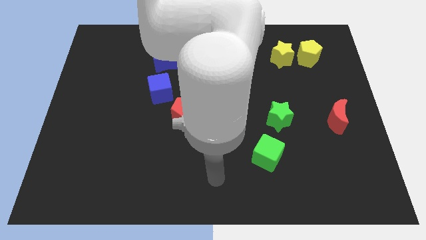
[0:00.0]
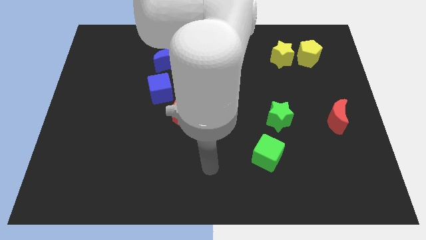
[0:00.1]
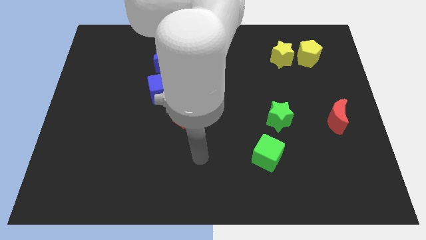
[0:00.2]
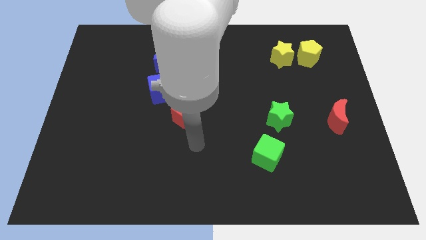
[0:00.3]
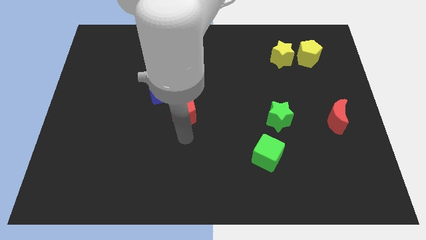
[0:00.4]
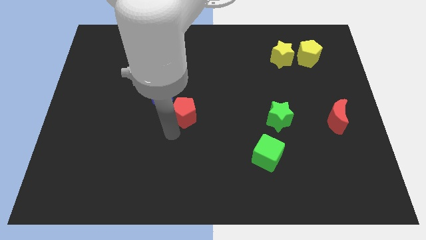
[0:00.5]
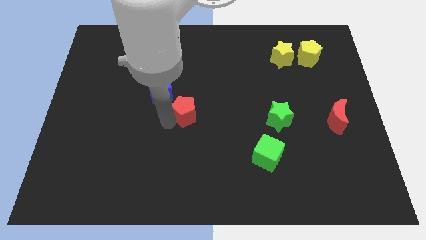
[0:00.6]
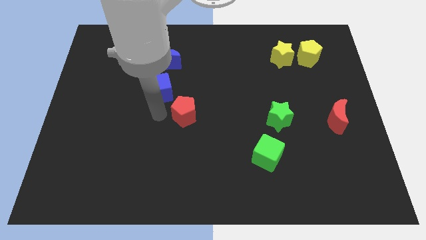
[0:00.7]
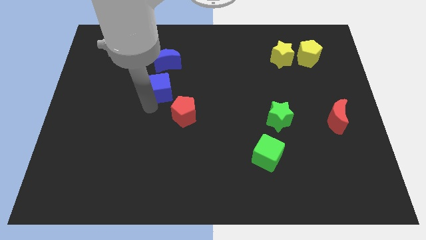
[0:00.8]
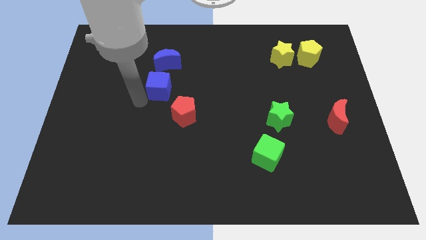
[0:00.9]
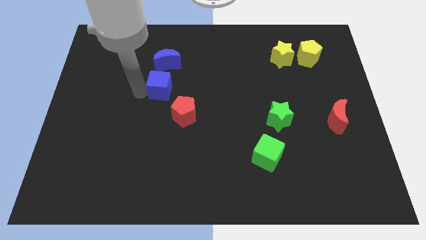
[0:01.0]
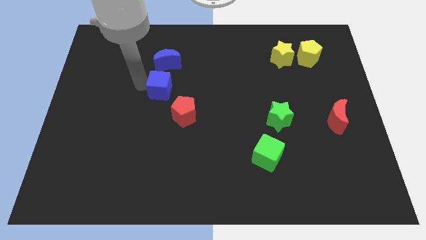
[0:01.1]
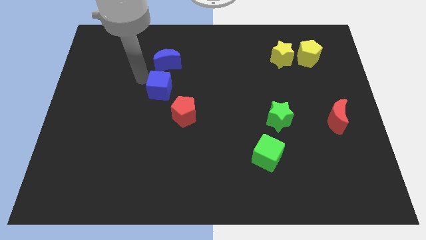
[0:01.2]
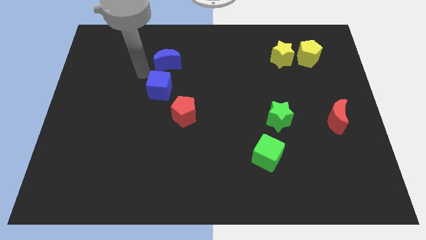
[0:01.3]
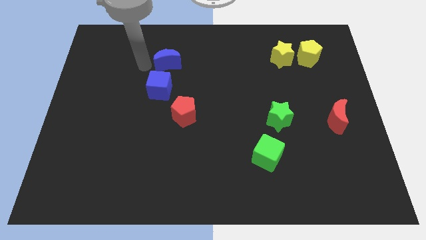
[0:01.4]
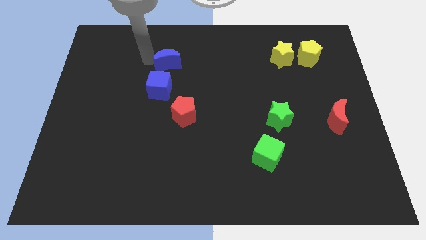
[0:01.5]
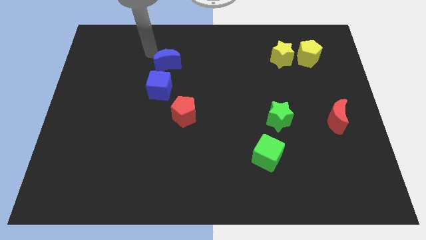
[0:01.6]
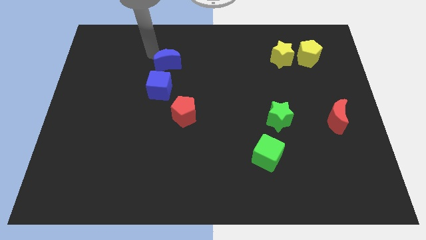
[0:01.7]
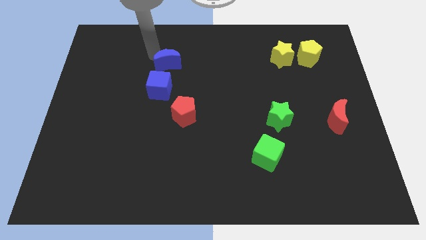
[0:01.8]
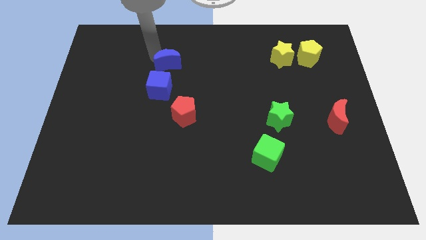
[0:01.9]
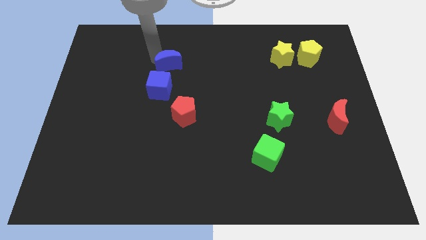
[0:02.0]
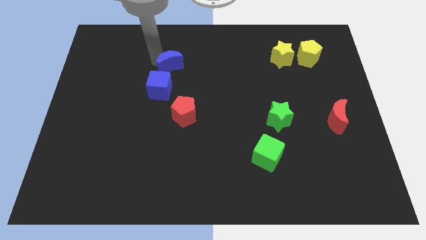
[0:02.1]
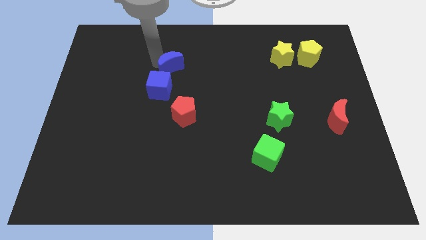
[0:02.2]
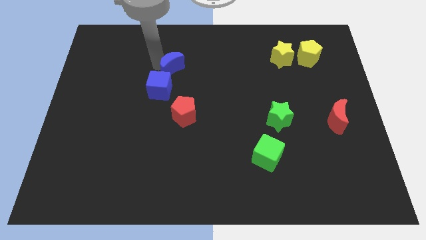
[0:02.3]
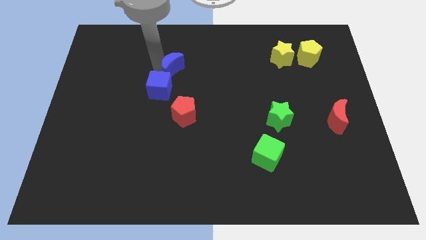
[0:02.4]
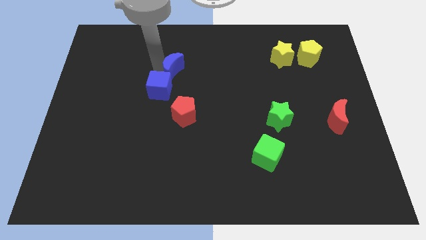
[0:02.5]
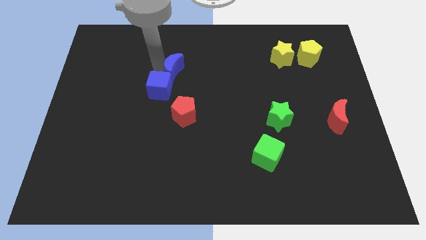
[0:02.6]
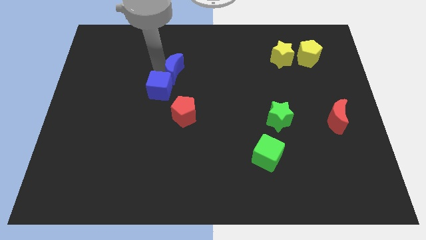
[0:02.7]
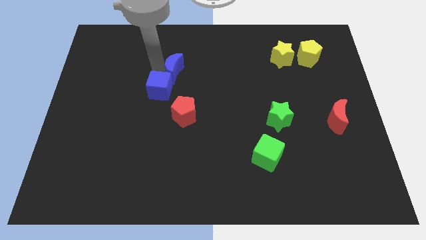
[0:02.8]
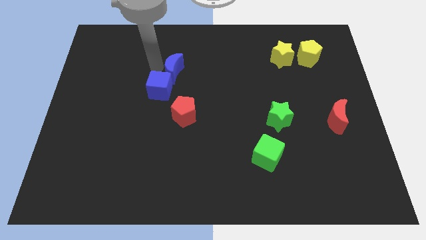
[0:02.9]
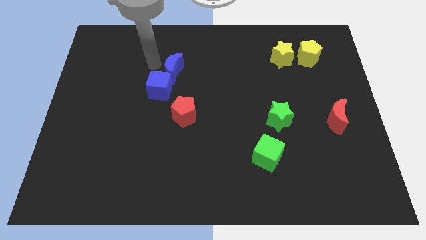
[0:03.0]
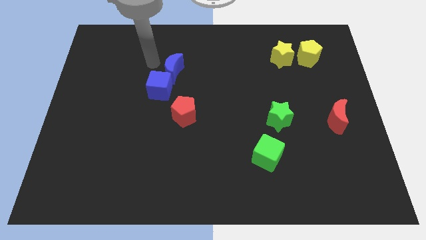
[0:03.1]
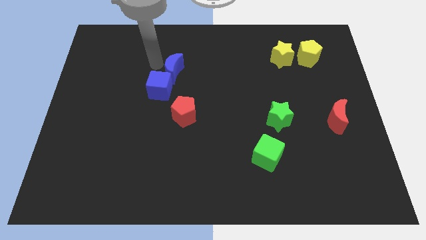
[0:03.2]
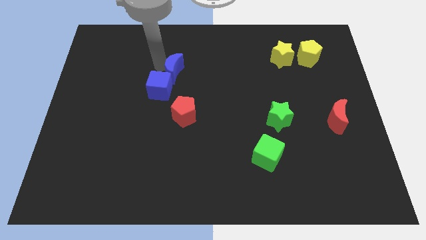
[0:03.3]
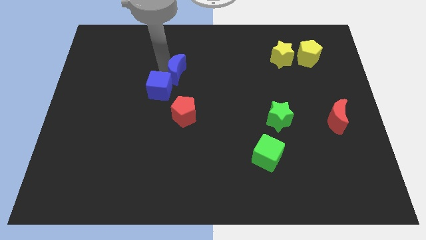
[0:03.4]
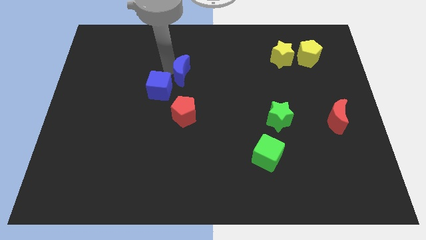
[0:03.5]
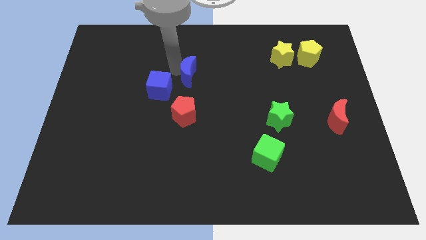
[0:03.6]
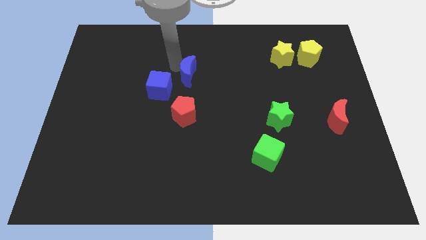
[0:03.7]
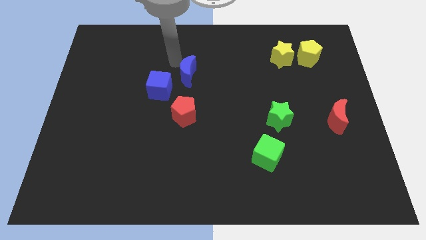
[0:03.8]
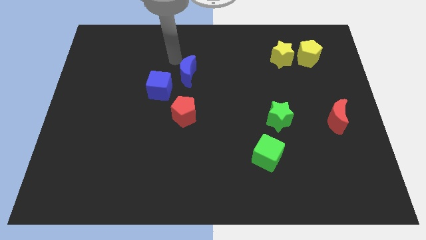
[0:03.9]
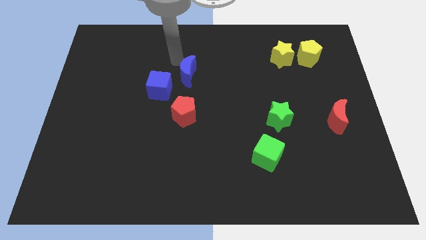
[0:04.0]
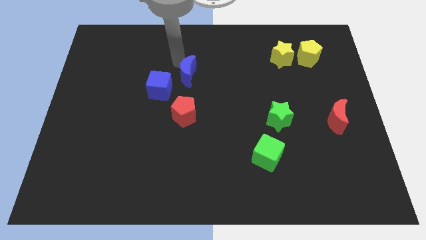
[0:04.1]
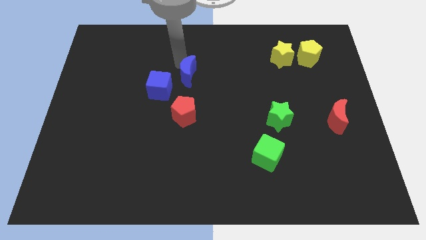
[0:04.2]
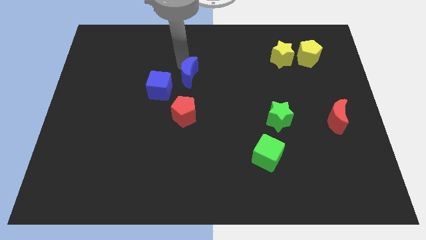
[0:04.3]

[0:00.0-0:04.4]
move the blue moon down and to the right diagonally a little

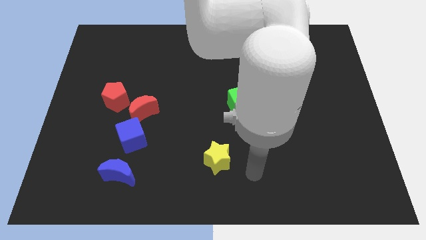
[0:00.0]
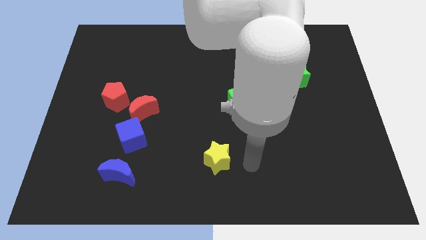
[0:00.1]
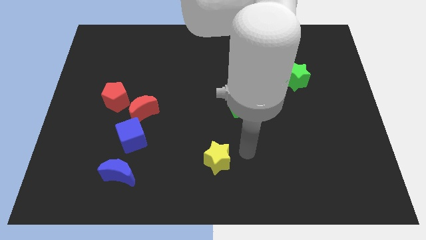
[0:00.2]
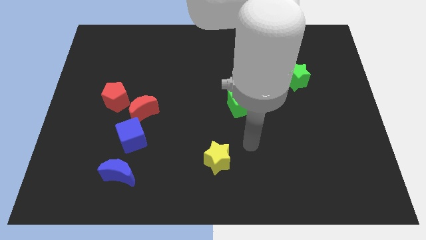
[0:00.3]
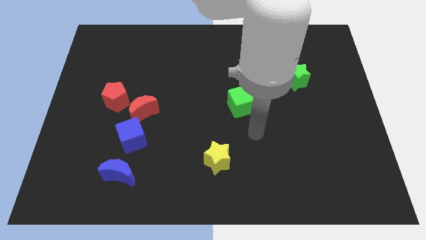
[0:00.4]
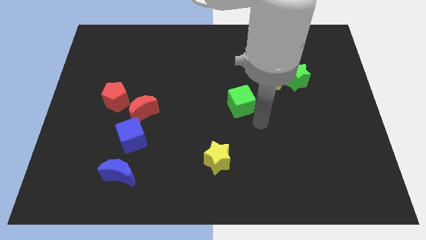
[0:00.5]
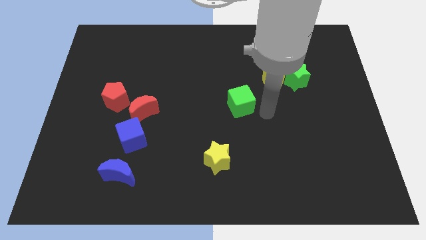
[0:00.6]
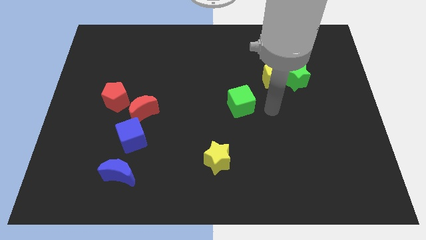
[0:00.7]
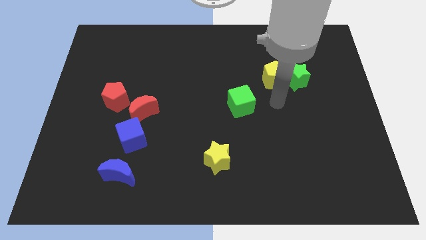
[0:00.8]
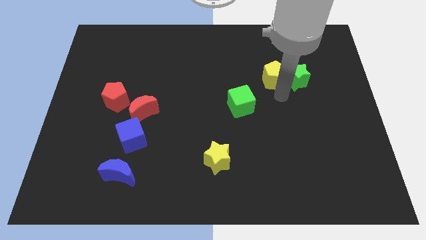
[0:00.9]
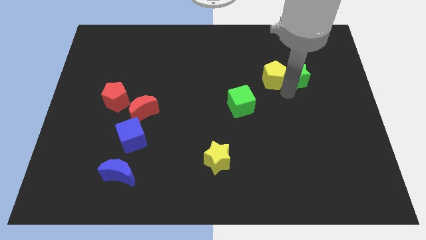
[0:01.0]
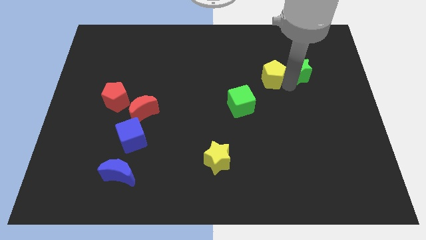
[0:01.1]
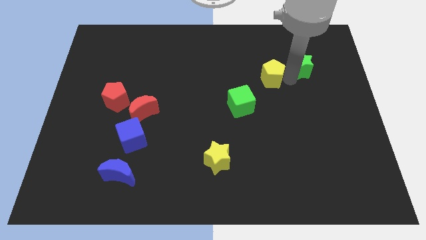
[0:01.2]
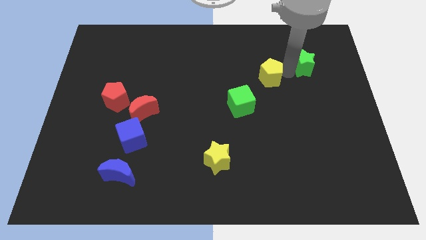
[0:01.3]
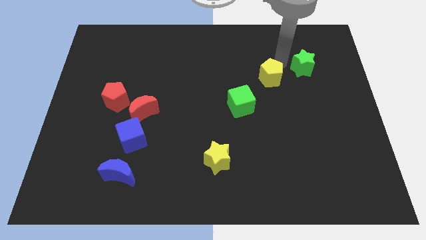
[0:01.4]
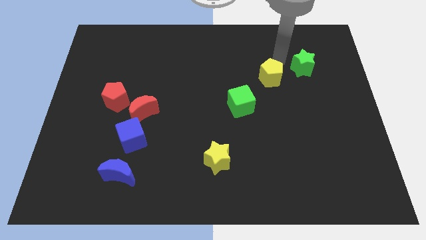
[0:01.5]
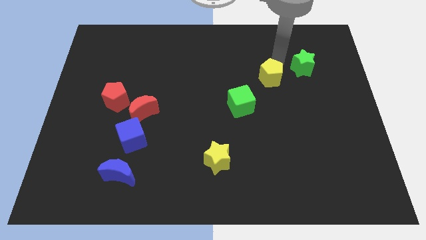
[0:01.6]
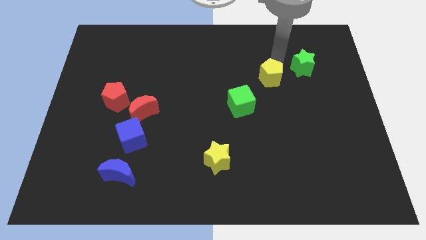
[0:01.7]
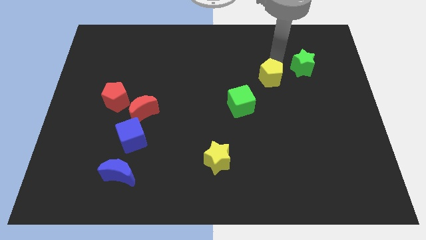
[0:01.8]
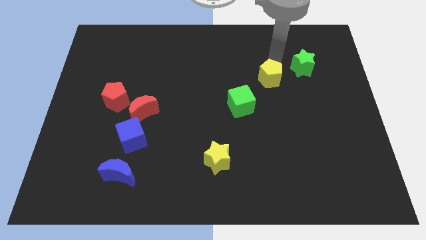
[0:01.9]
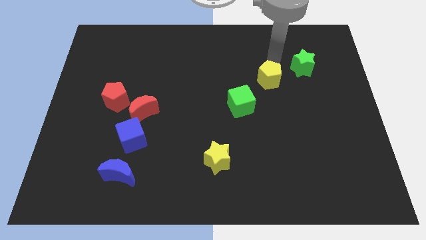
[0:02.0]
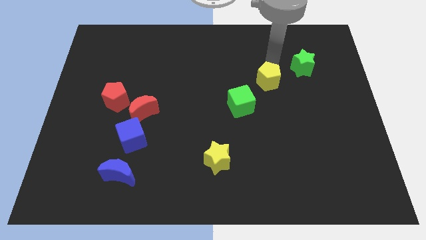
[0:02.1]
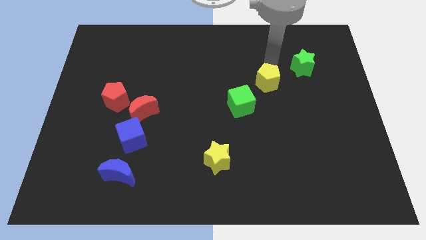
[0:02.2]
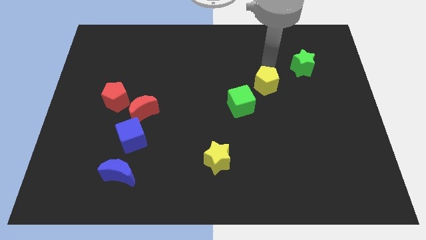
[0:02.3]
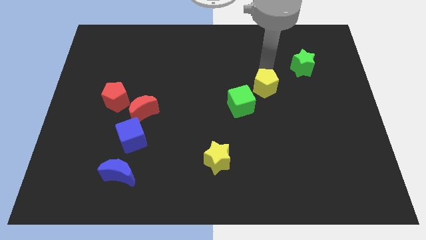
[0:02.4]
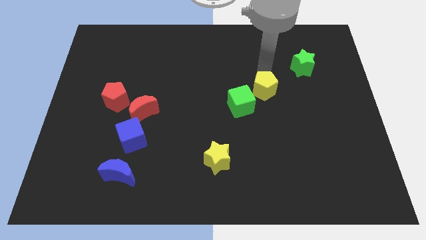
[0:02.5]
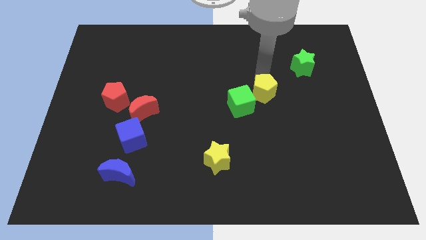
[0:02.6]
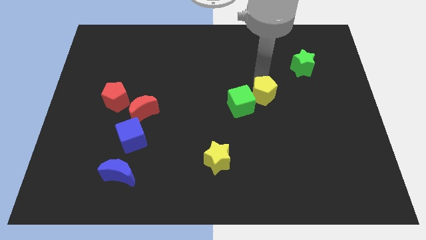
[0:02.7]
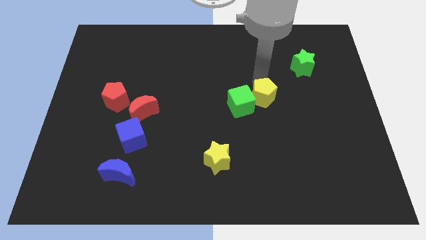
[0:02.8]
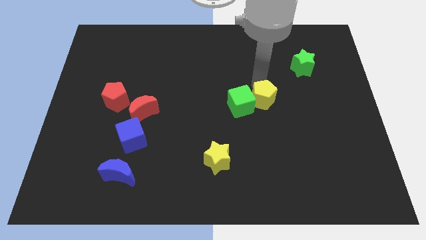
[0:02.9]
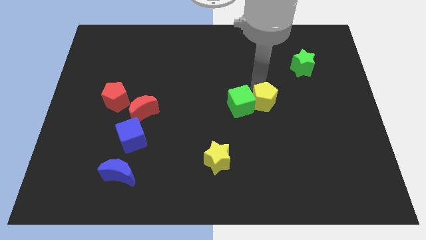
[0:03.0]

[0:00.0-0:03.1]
push the yellow pentagon downwards and left diagonally a bit

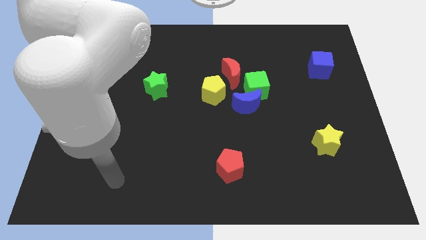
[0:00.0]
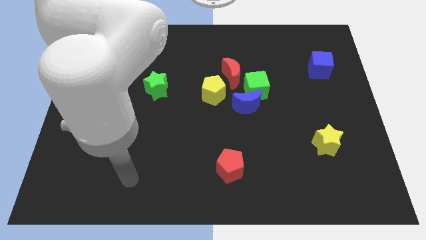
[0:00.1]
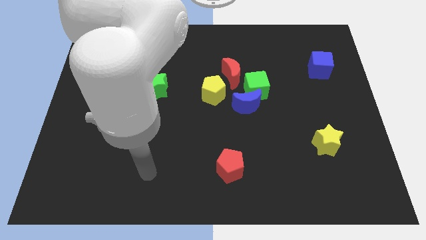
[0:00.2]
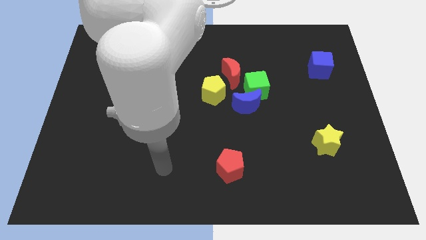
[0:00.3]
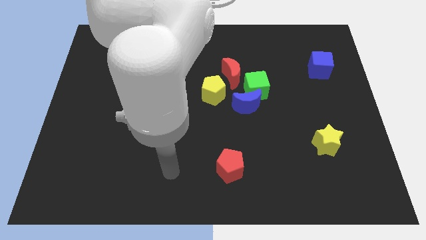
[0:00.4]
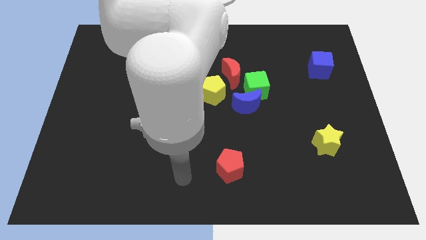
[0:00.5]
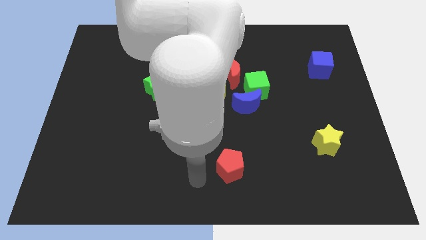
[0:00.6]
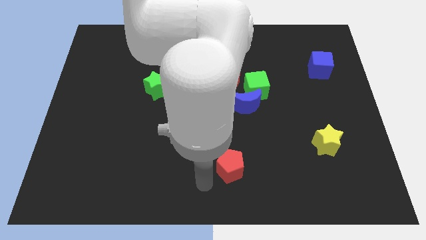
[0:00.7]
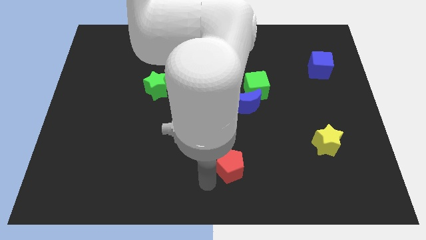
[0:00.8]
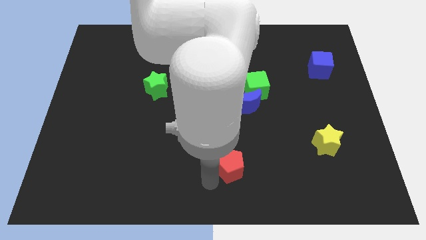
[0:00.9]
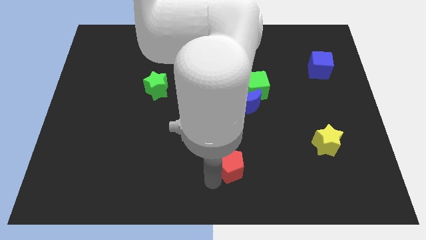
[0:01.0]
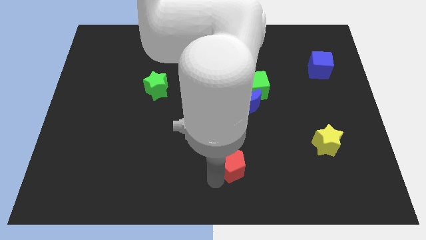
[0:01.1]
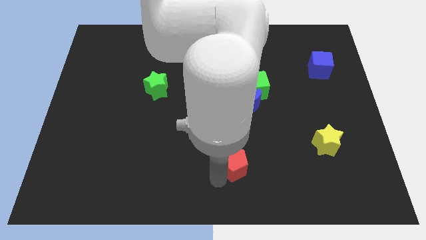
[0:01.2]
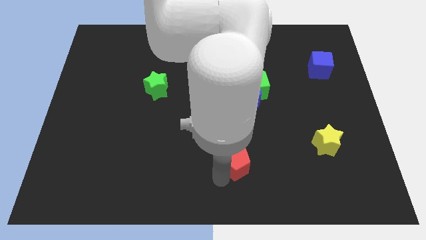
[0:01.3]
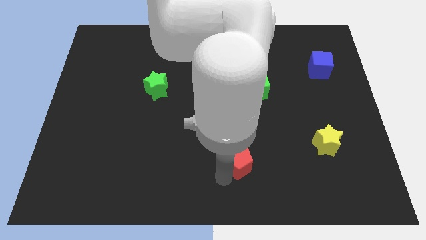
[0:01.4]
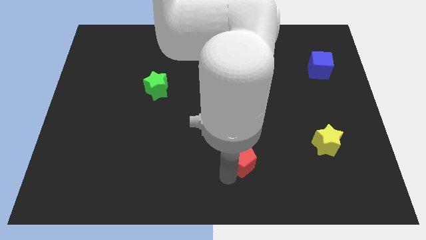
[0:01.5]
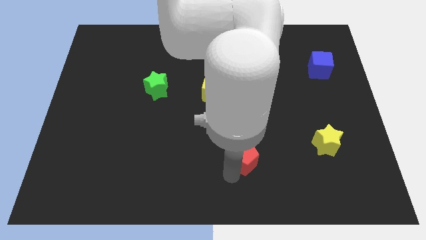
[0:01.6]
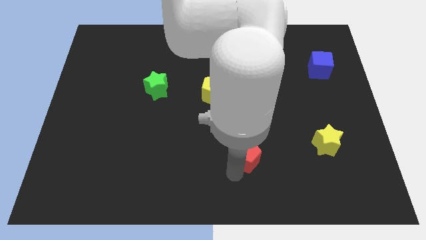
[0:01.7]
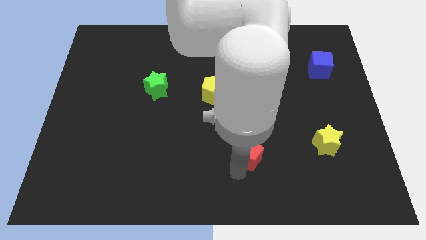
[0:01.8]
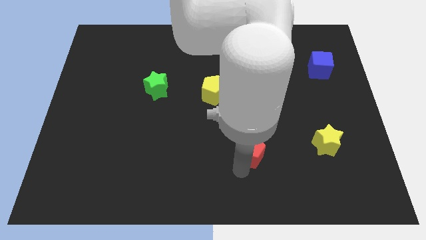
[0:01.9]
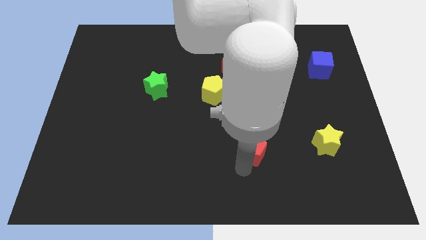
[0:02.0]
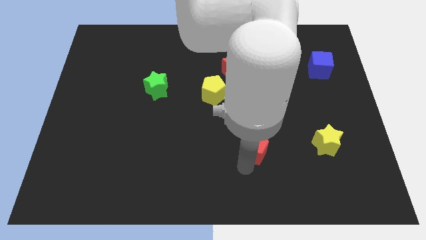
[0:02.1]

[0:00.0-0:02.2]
push the red pentagon diagonally up and right a little bit
